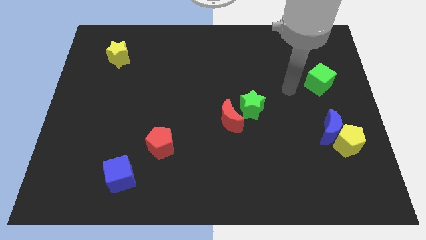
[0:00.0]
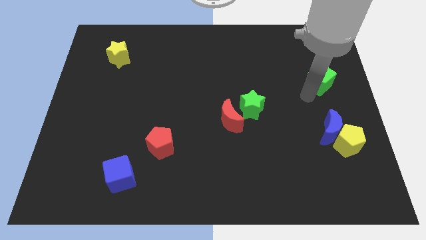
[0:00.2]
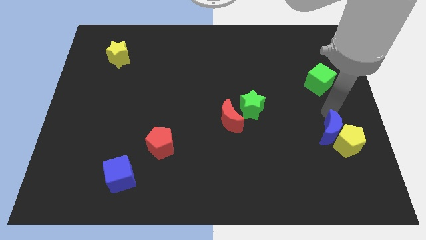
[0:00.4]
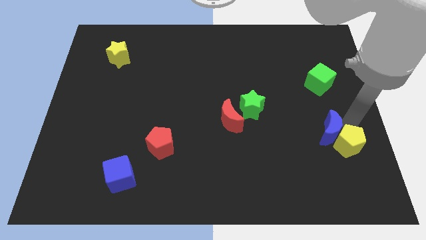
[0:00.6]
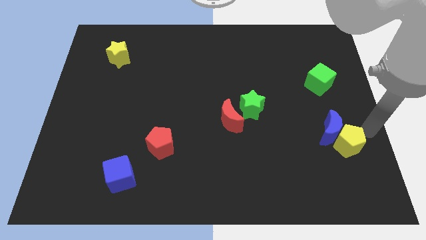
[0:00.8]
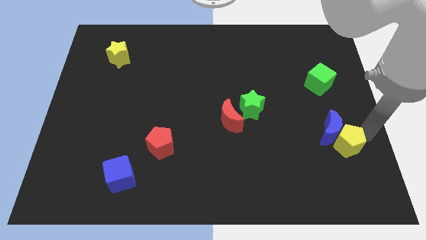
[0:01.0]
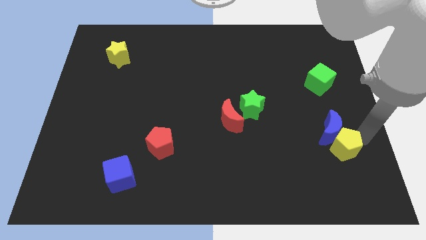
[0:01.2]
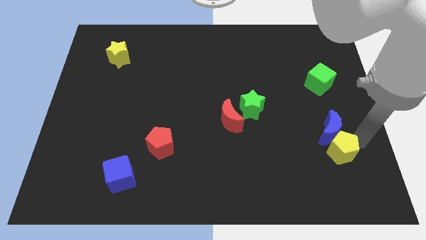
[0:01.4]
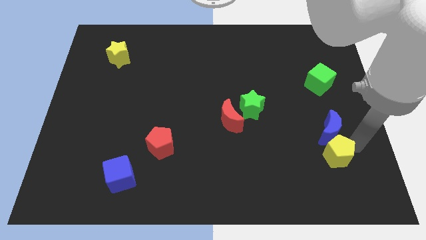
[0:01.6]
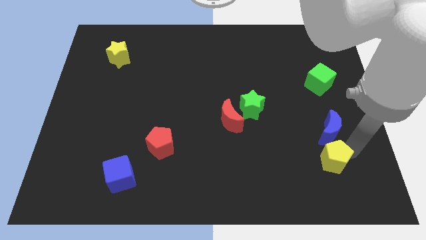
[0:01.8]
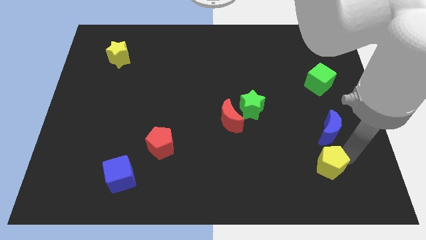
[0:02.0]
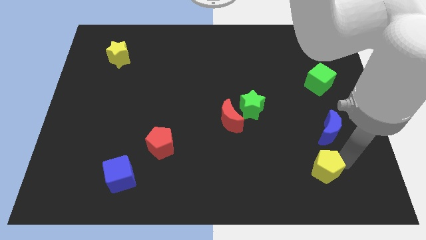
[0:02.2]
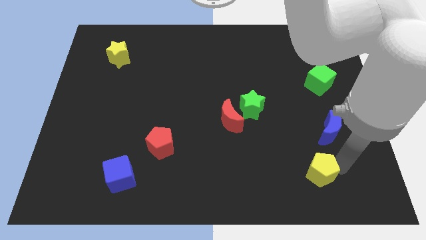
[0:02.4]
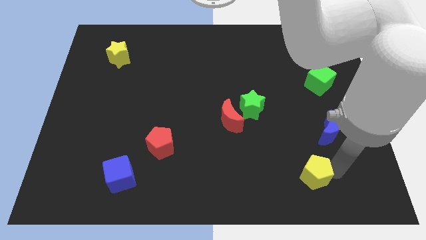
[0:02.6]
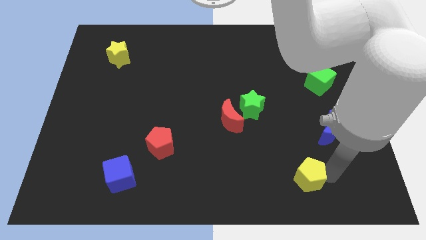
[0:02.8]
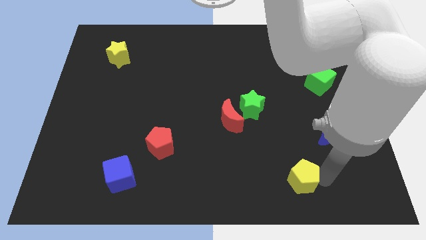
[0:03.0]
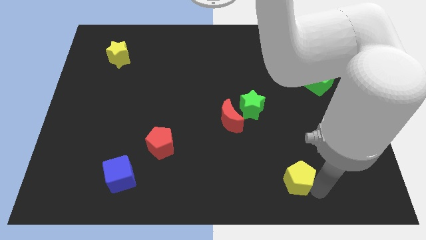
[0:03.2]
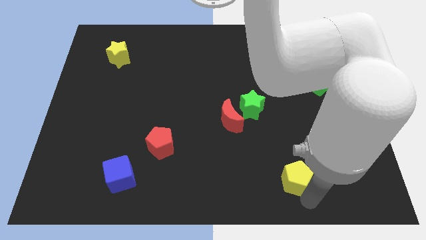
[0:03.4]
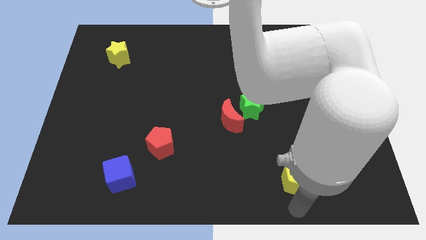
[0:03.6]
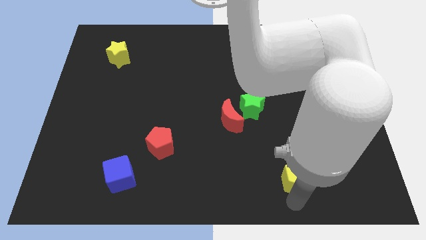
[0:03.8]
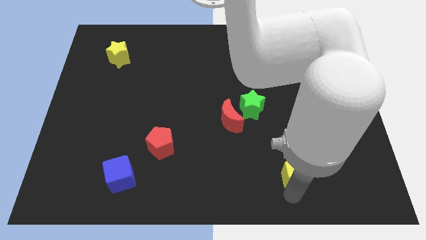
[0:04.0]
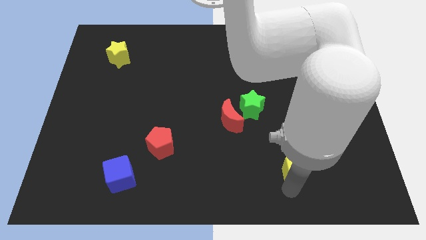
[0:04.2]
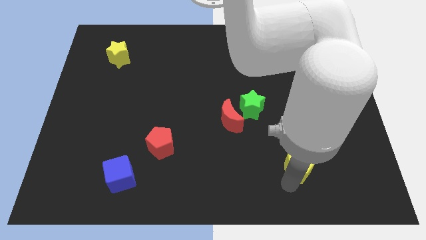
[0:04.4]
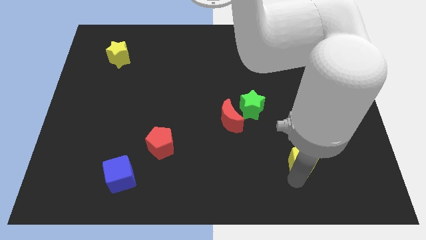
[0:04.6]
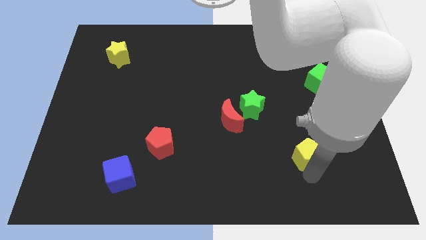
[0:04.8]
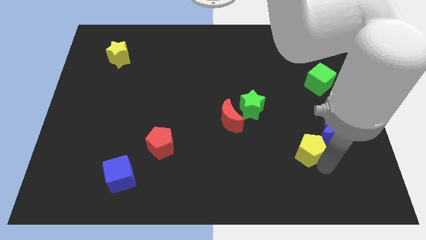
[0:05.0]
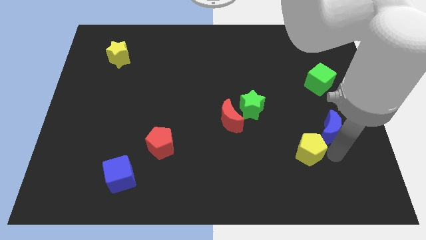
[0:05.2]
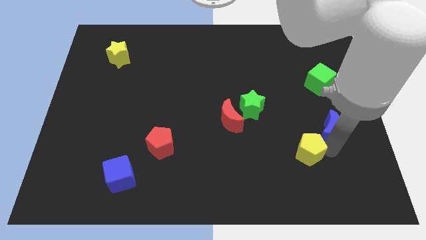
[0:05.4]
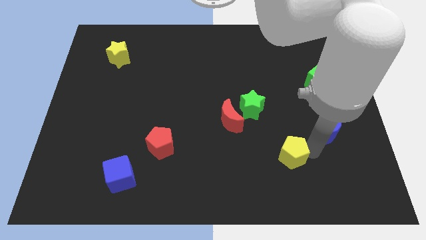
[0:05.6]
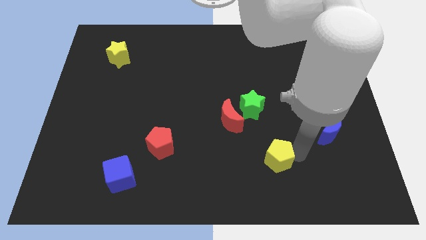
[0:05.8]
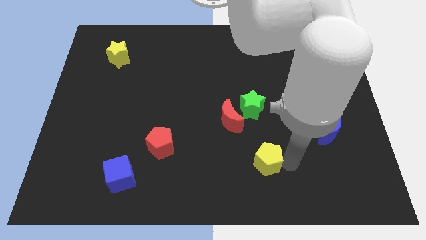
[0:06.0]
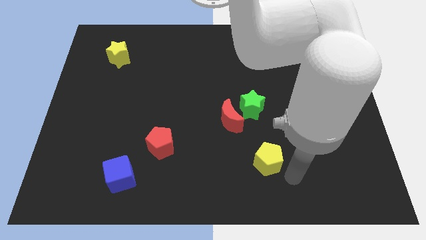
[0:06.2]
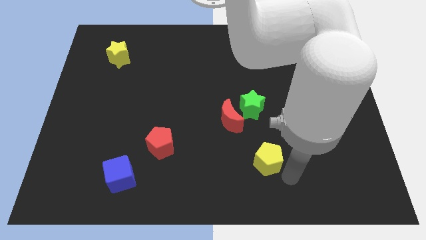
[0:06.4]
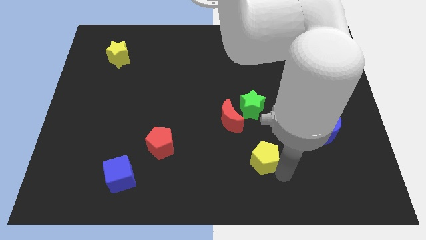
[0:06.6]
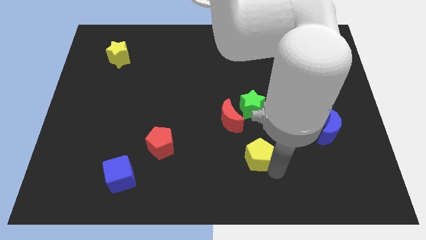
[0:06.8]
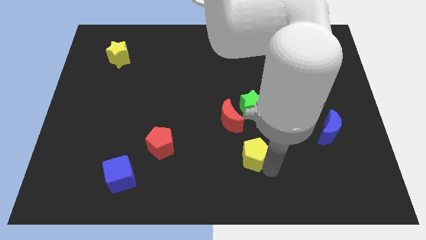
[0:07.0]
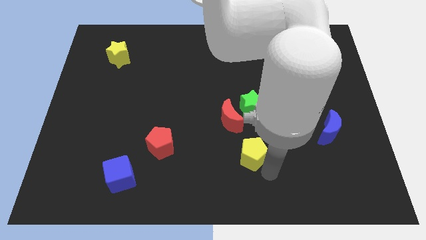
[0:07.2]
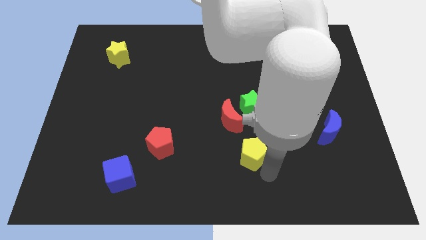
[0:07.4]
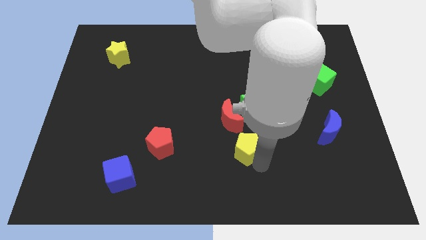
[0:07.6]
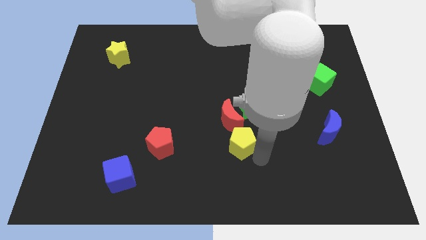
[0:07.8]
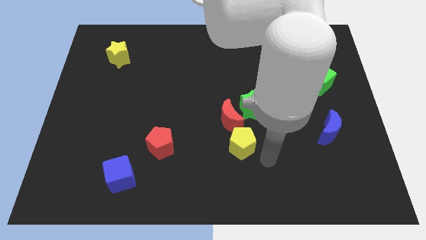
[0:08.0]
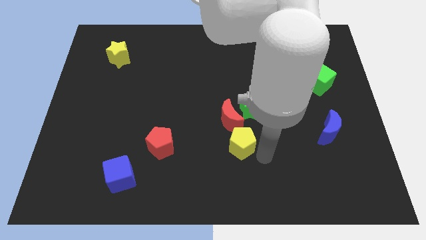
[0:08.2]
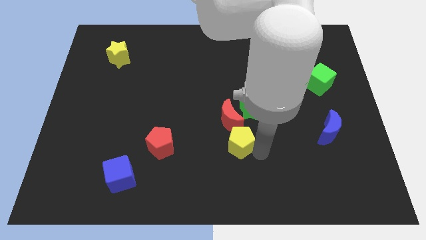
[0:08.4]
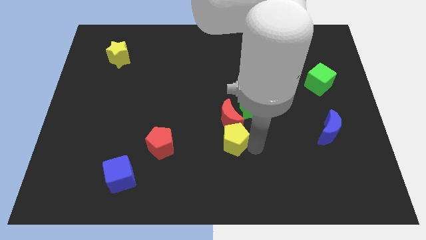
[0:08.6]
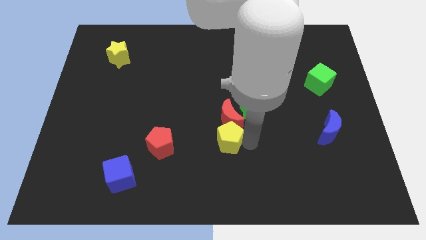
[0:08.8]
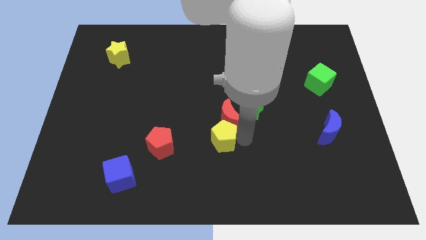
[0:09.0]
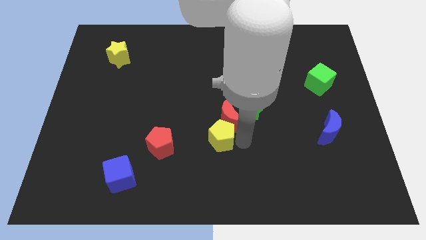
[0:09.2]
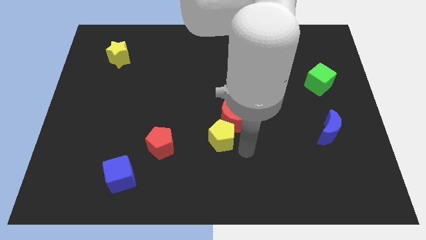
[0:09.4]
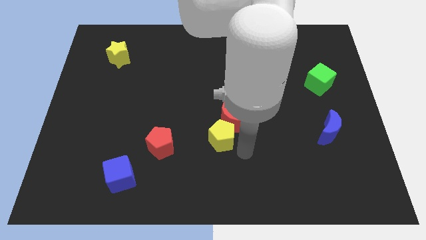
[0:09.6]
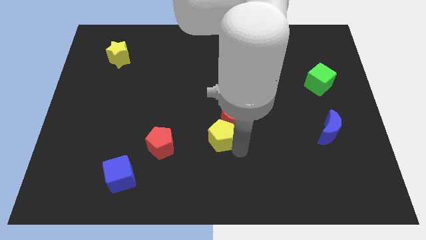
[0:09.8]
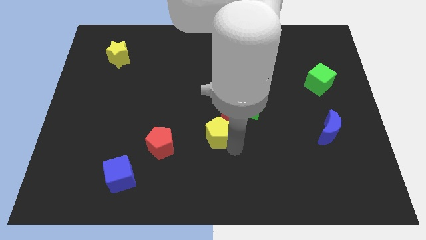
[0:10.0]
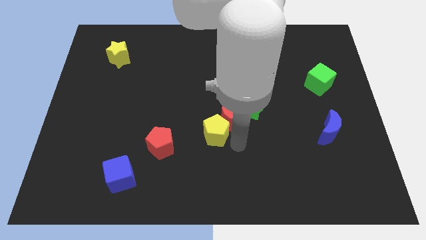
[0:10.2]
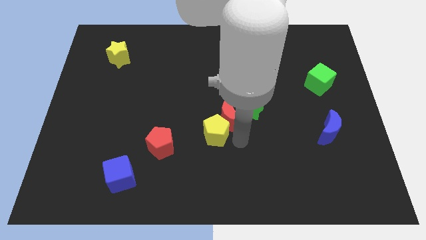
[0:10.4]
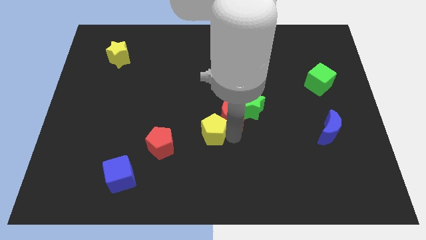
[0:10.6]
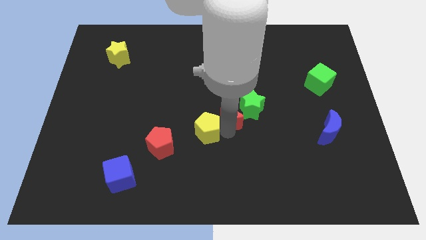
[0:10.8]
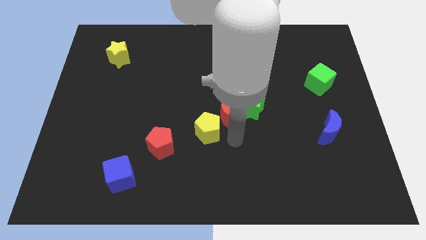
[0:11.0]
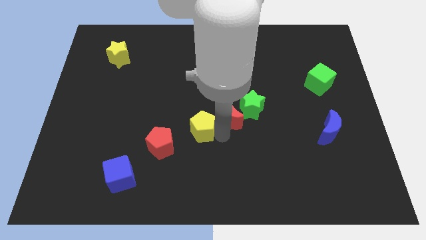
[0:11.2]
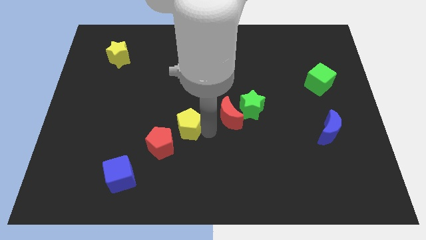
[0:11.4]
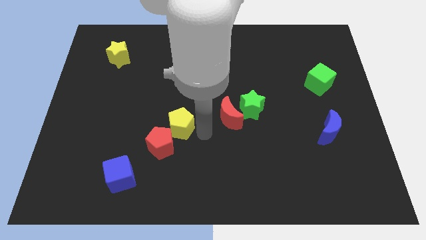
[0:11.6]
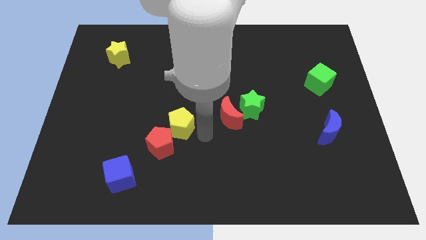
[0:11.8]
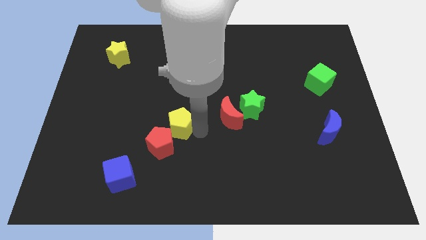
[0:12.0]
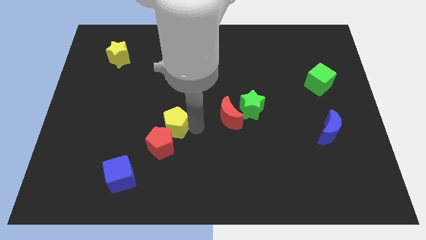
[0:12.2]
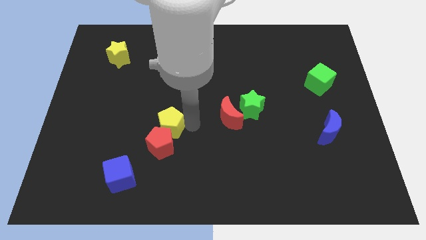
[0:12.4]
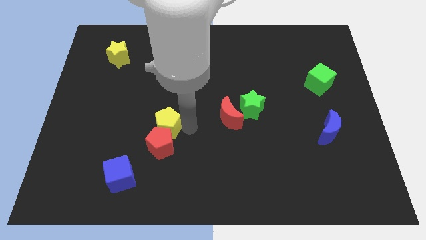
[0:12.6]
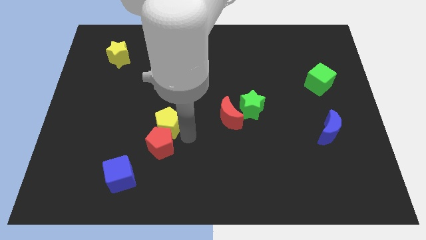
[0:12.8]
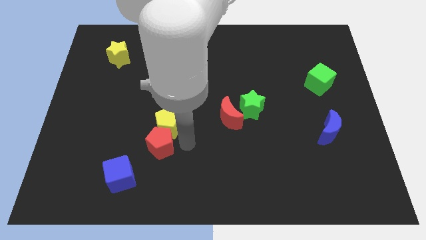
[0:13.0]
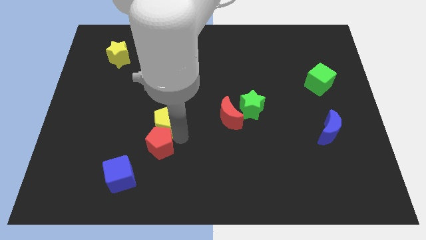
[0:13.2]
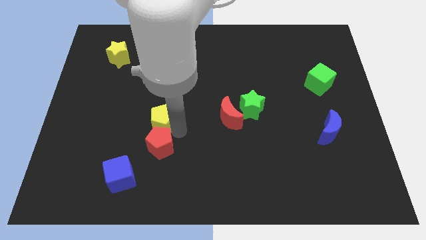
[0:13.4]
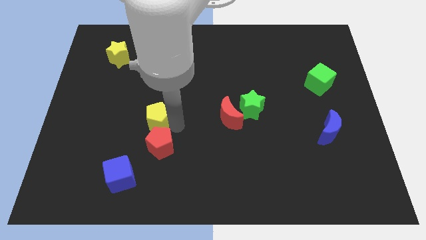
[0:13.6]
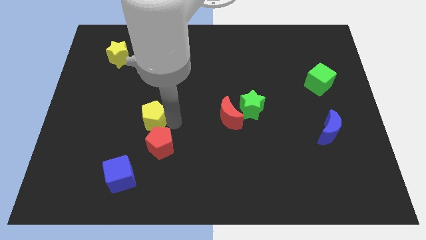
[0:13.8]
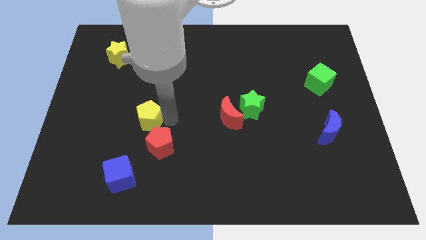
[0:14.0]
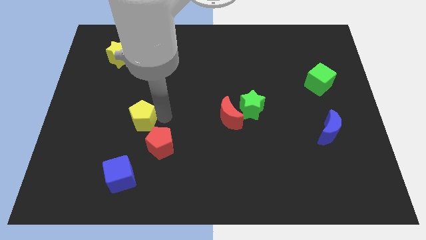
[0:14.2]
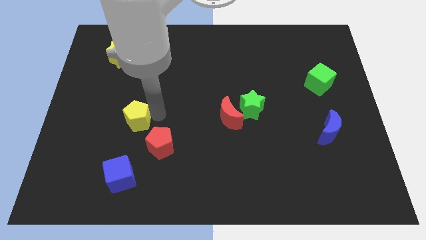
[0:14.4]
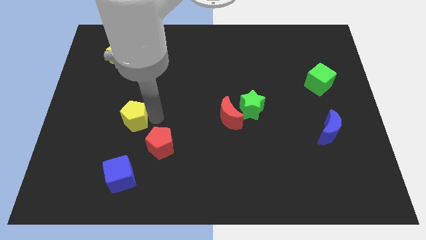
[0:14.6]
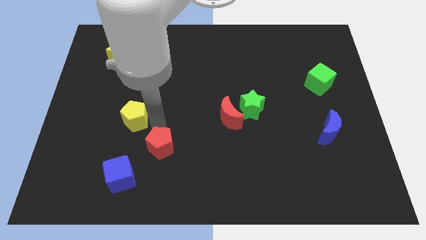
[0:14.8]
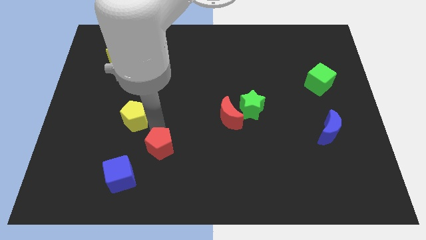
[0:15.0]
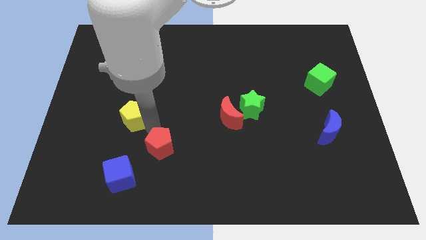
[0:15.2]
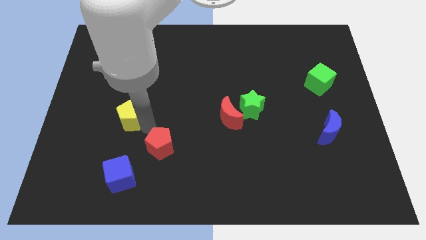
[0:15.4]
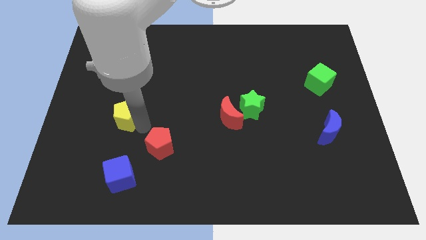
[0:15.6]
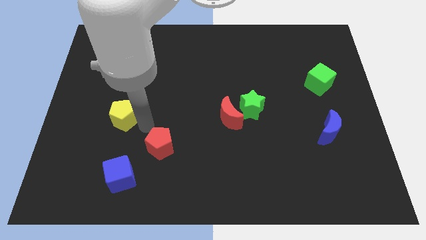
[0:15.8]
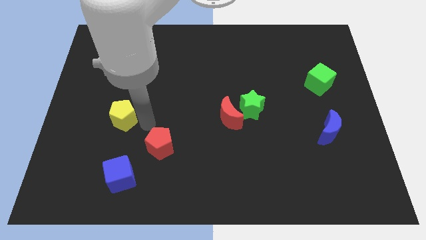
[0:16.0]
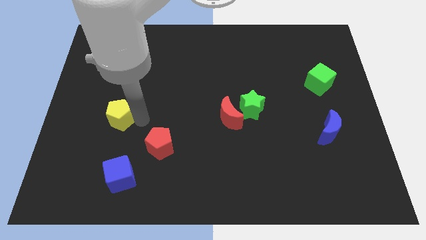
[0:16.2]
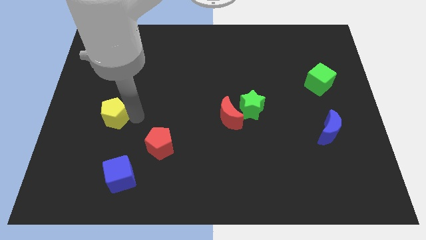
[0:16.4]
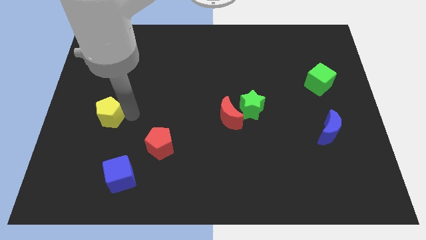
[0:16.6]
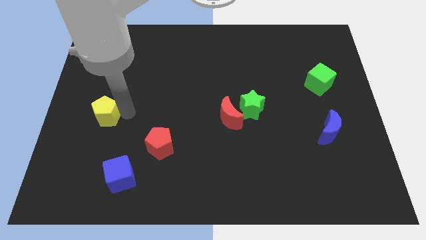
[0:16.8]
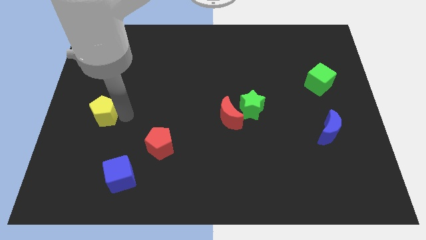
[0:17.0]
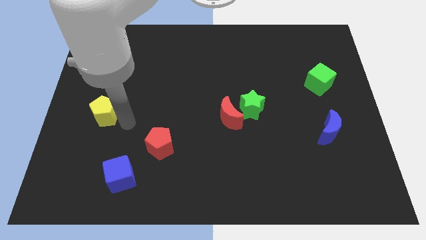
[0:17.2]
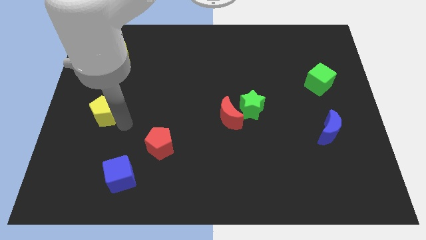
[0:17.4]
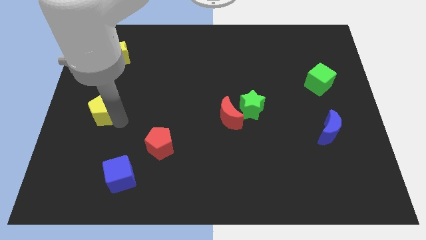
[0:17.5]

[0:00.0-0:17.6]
move the yellow pentagon to the left side
